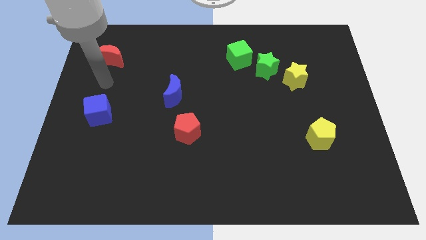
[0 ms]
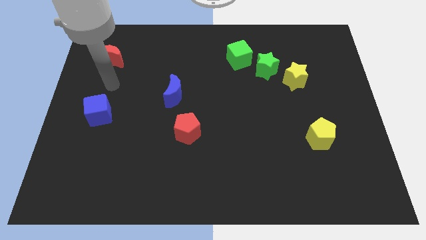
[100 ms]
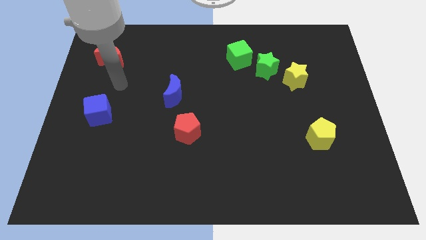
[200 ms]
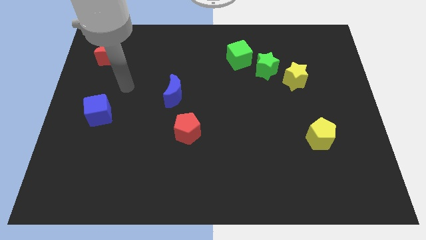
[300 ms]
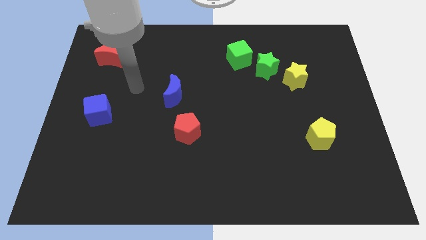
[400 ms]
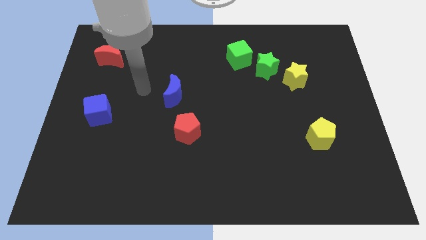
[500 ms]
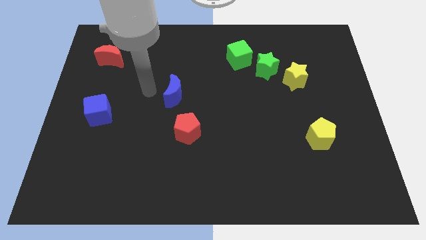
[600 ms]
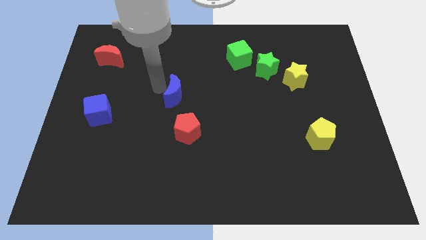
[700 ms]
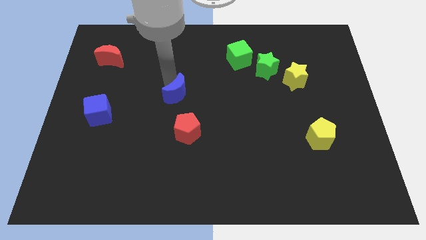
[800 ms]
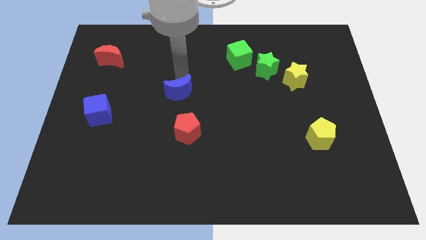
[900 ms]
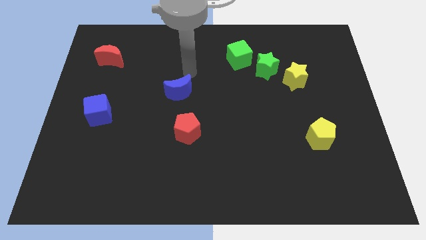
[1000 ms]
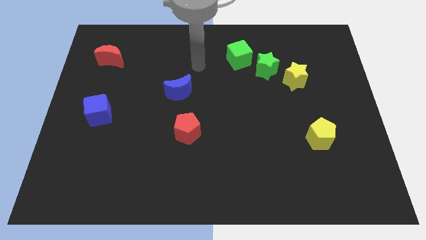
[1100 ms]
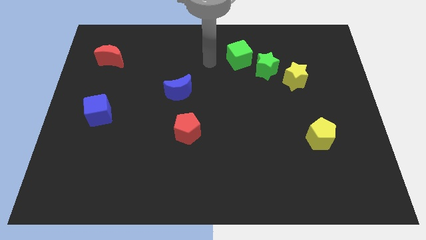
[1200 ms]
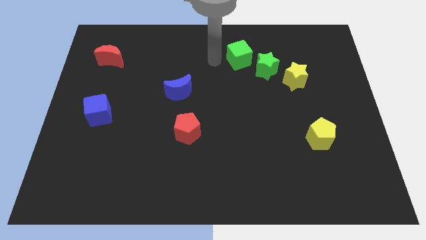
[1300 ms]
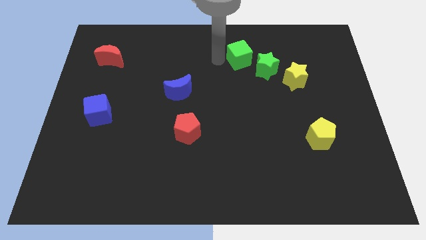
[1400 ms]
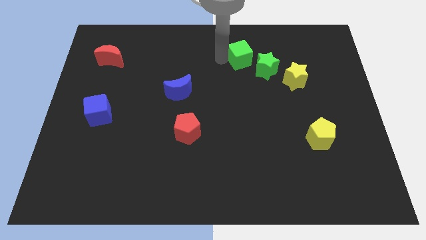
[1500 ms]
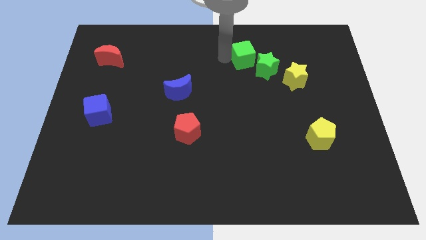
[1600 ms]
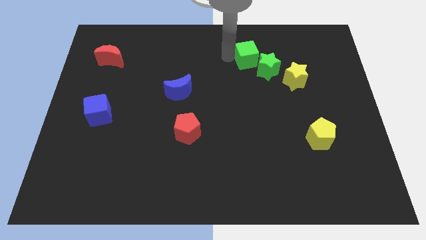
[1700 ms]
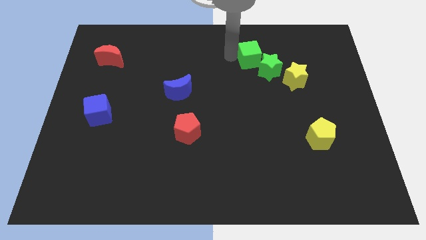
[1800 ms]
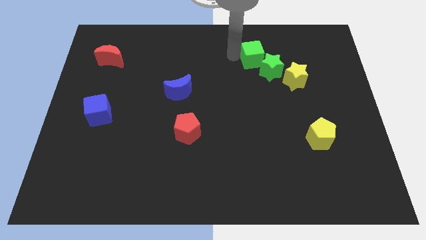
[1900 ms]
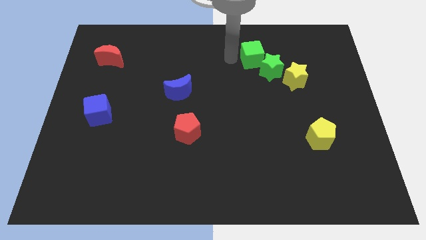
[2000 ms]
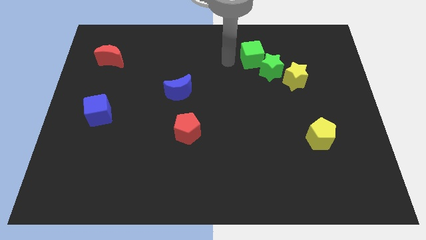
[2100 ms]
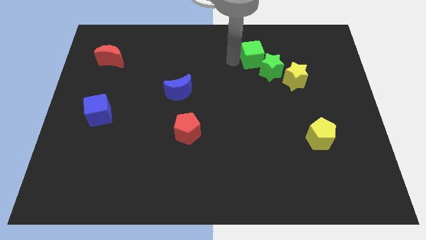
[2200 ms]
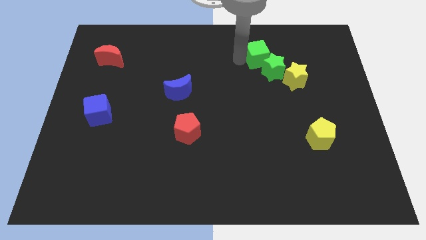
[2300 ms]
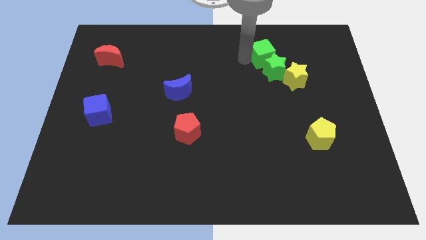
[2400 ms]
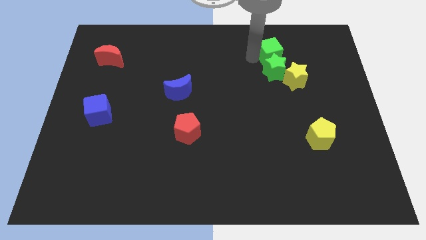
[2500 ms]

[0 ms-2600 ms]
push the green cube a little right

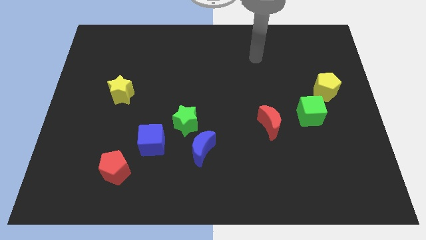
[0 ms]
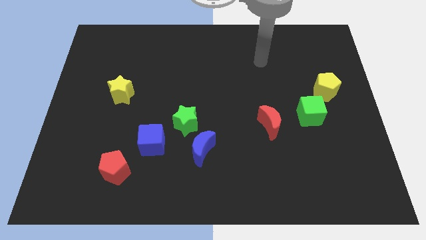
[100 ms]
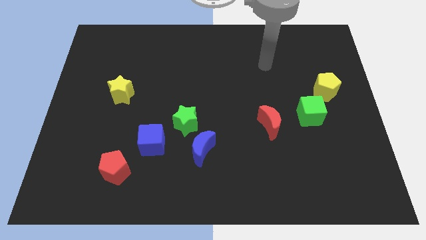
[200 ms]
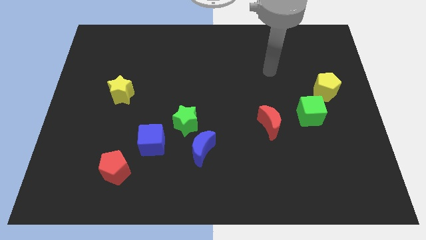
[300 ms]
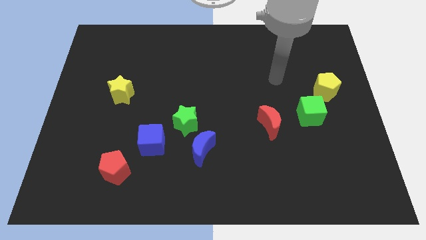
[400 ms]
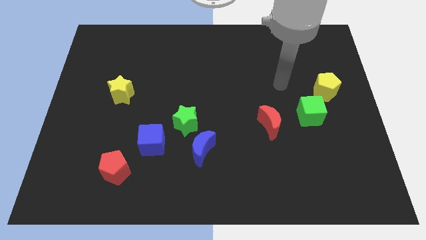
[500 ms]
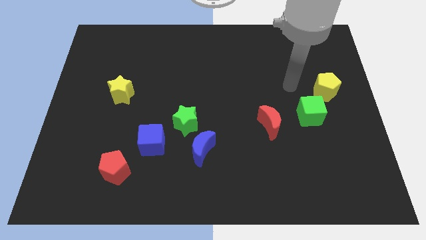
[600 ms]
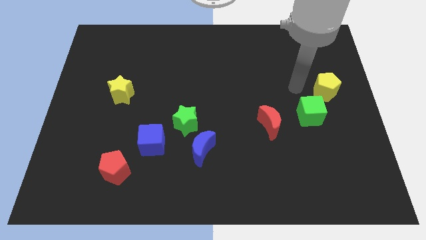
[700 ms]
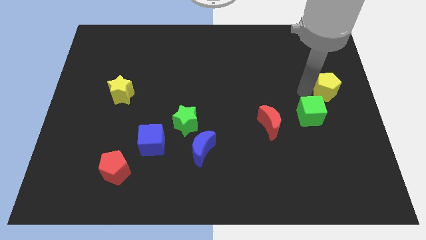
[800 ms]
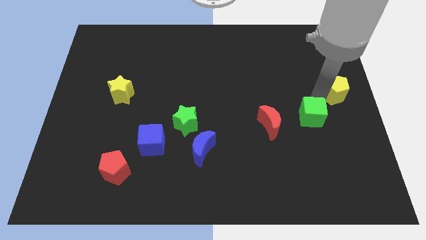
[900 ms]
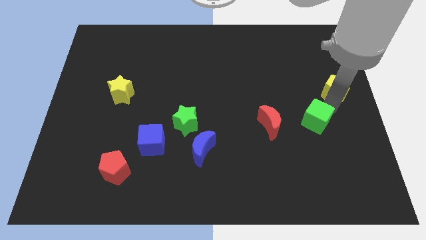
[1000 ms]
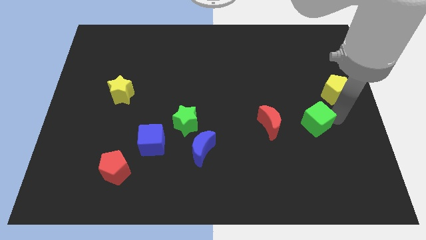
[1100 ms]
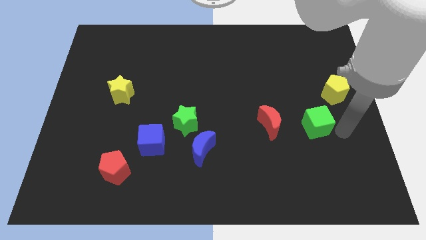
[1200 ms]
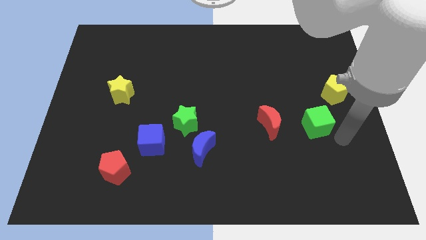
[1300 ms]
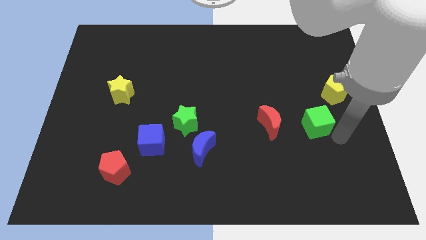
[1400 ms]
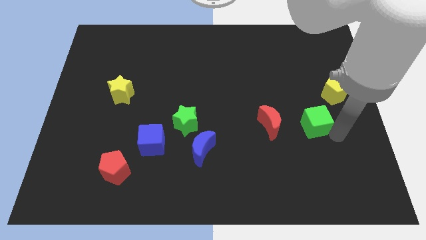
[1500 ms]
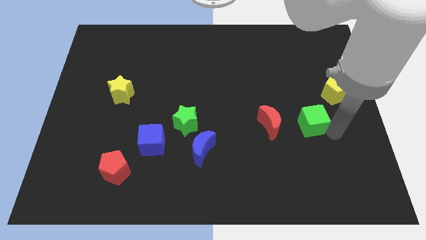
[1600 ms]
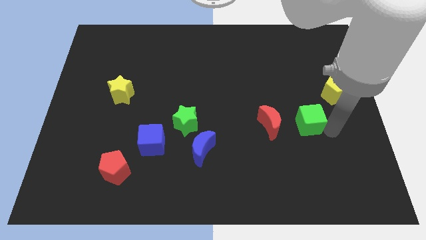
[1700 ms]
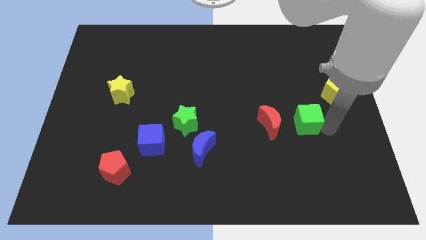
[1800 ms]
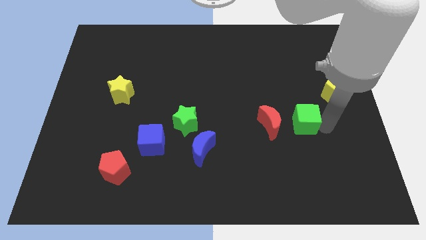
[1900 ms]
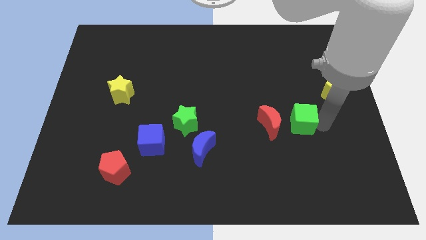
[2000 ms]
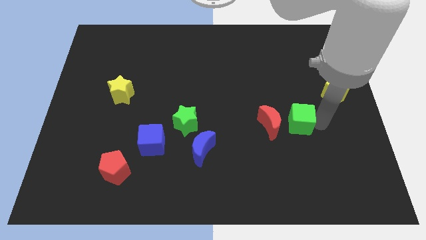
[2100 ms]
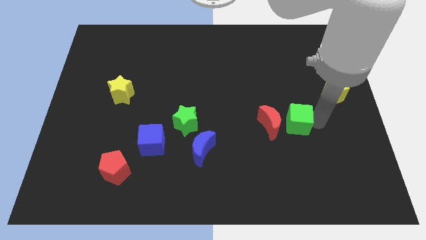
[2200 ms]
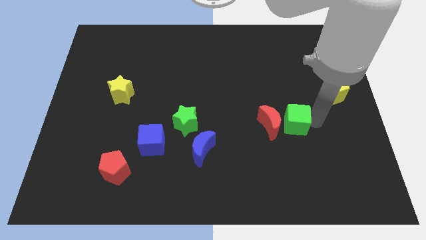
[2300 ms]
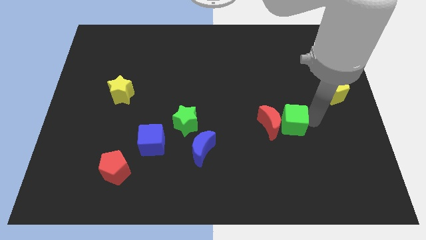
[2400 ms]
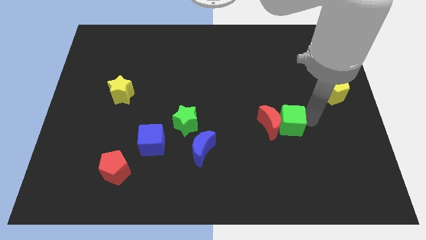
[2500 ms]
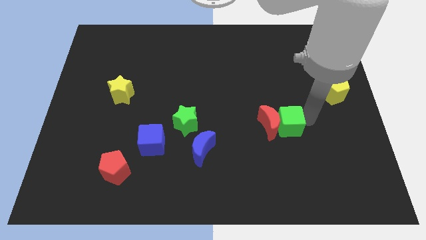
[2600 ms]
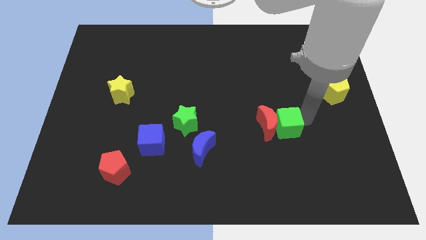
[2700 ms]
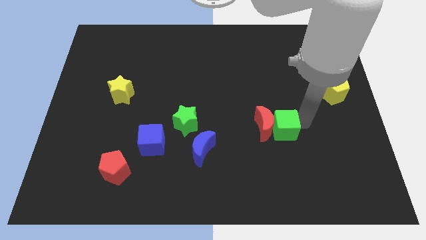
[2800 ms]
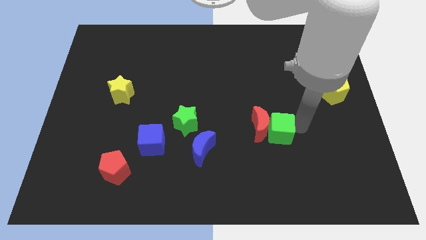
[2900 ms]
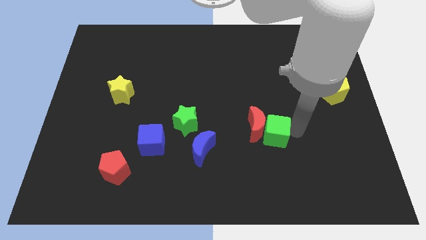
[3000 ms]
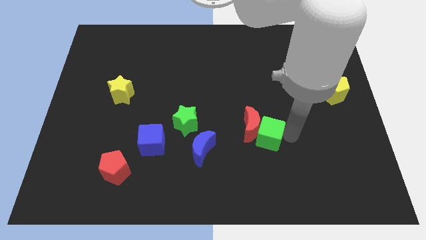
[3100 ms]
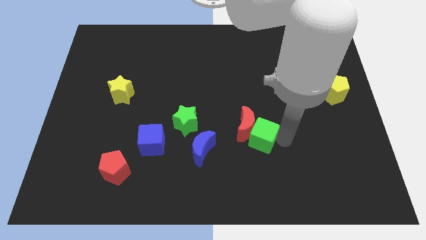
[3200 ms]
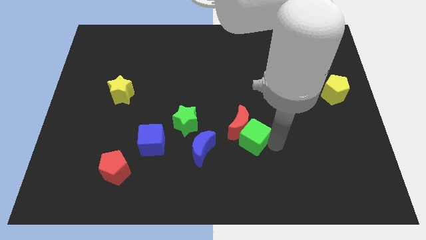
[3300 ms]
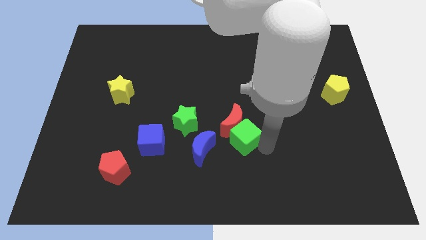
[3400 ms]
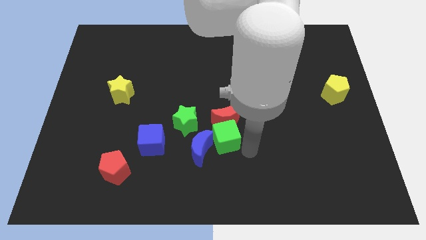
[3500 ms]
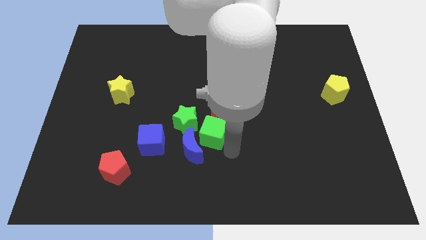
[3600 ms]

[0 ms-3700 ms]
move the green cube left

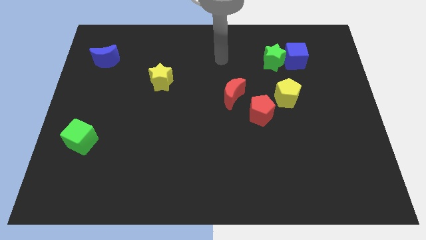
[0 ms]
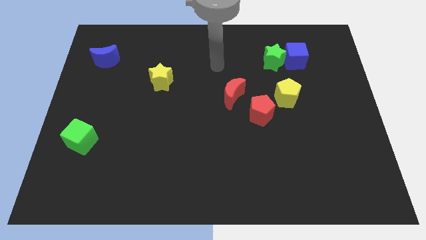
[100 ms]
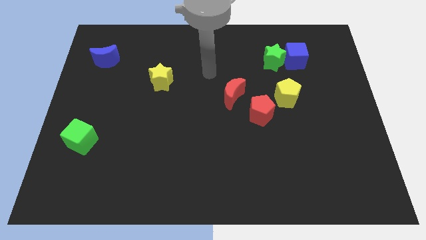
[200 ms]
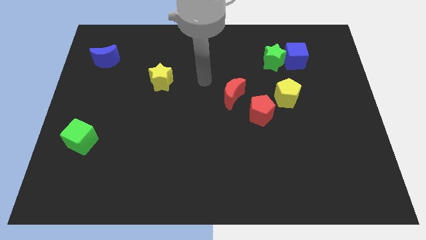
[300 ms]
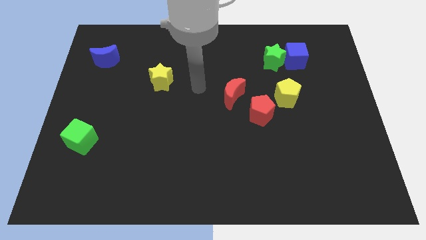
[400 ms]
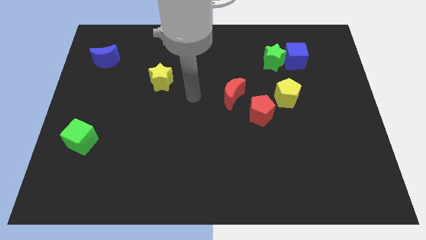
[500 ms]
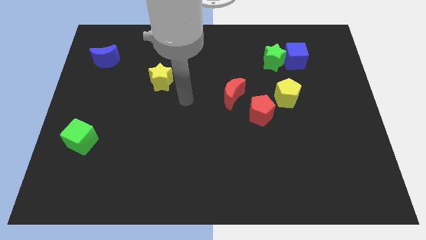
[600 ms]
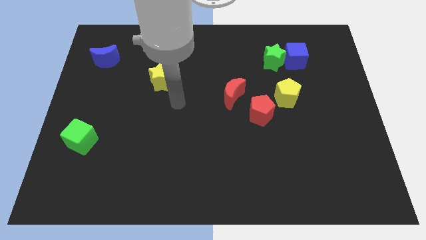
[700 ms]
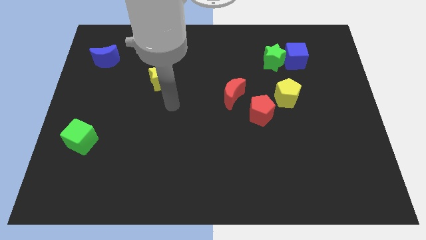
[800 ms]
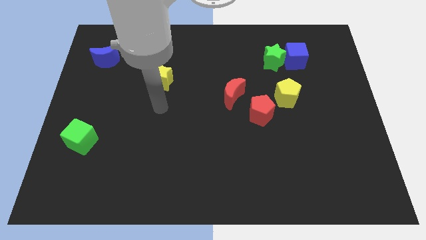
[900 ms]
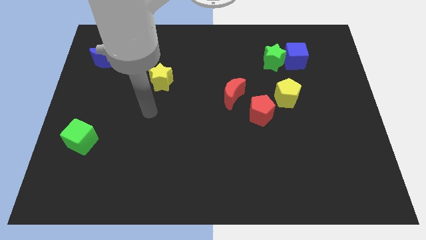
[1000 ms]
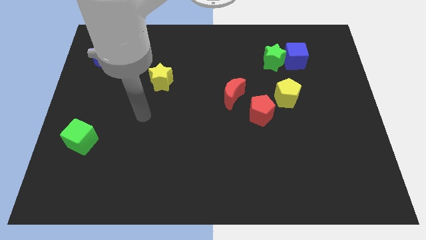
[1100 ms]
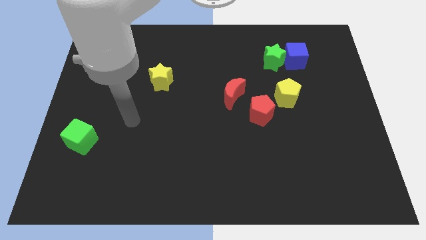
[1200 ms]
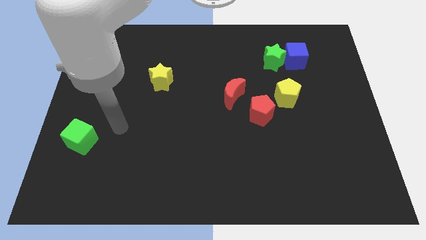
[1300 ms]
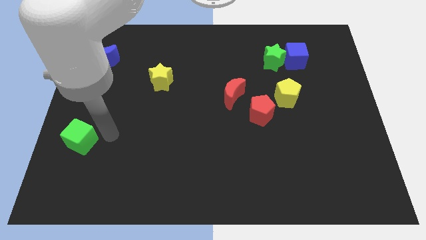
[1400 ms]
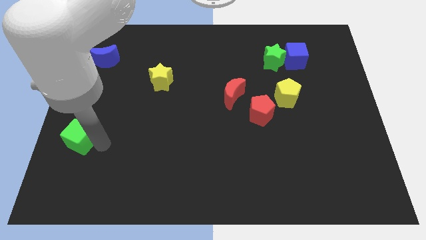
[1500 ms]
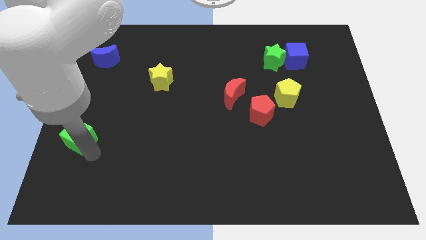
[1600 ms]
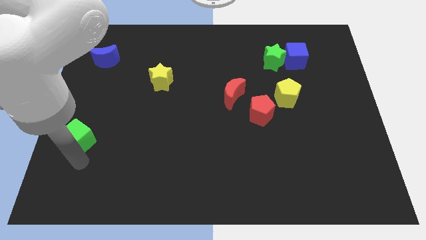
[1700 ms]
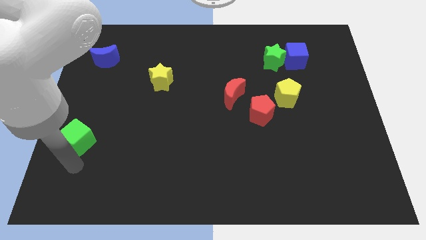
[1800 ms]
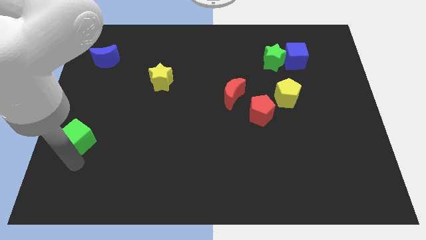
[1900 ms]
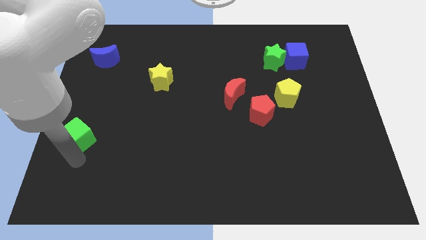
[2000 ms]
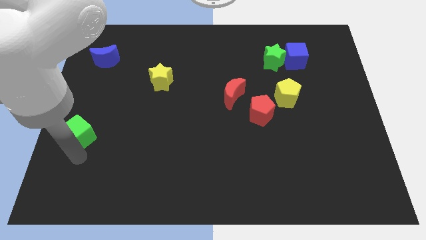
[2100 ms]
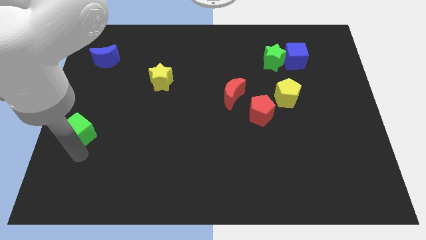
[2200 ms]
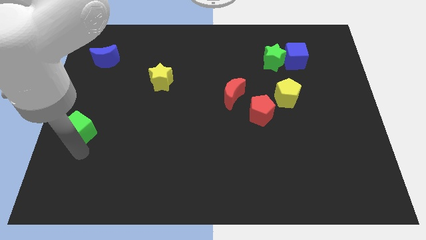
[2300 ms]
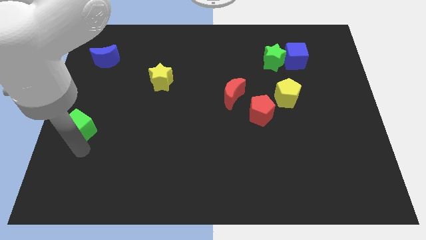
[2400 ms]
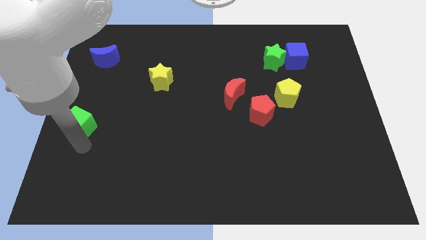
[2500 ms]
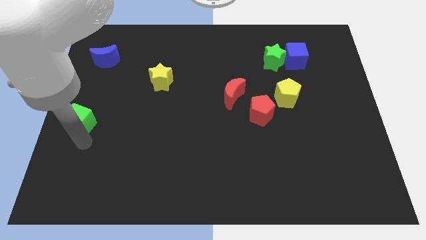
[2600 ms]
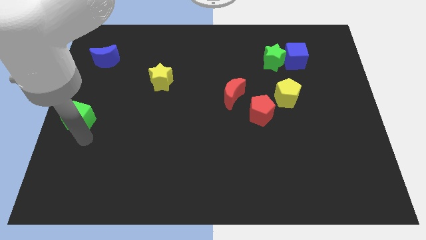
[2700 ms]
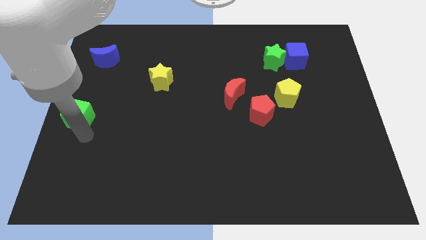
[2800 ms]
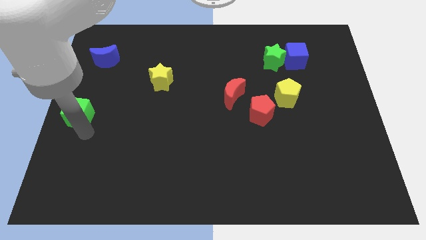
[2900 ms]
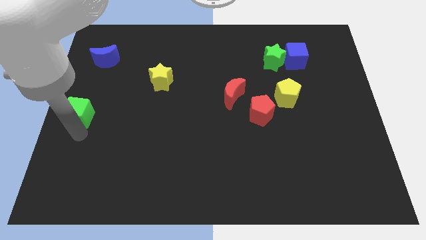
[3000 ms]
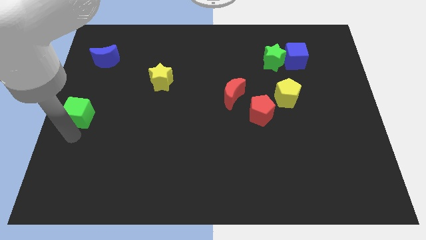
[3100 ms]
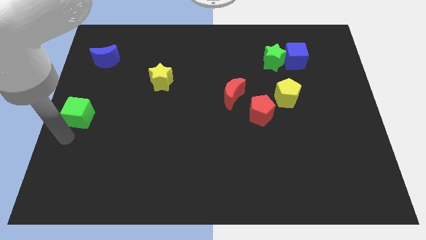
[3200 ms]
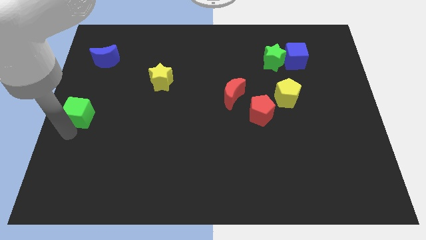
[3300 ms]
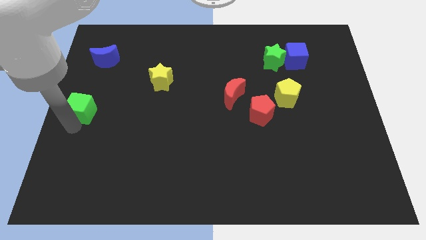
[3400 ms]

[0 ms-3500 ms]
slide the green cube upwards a bit
